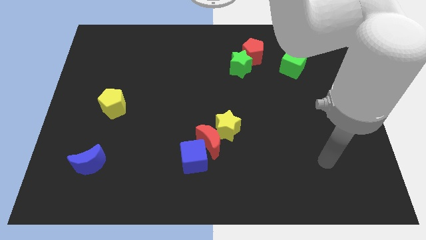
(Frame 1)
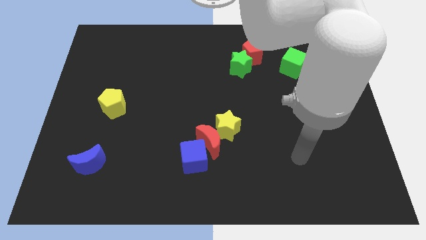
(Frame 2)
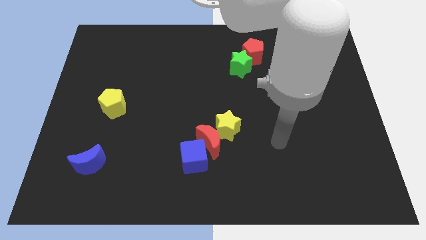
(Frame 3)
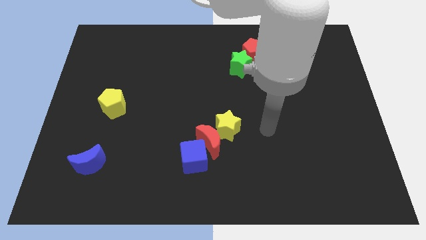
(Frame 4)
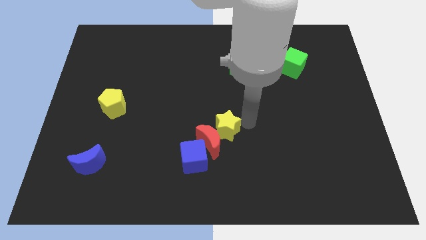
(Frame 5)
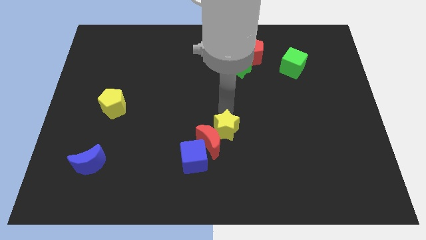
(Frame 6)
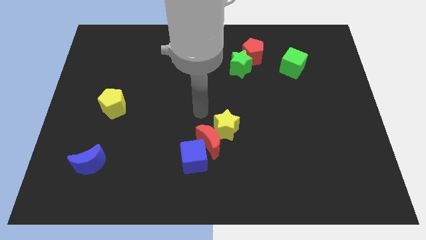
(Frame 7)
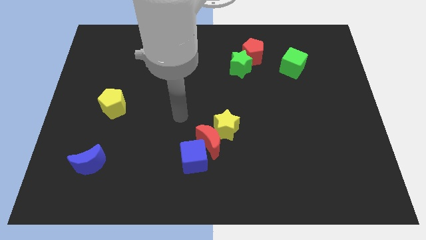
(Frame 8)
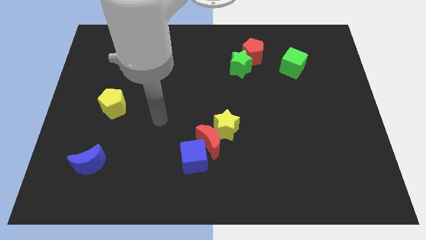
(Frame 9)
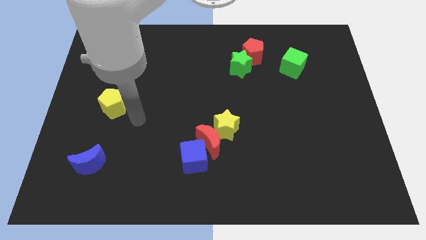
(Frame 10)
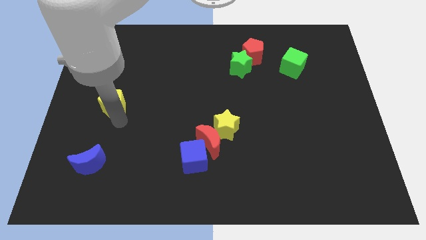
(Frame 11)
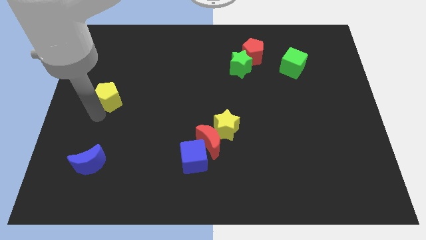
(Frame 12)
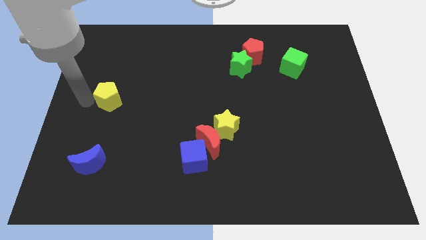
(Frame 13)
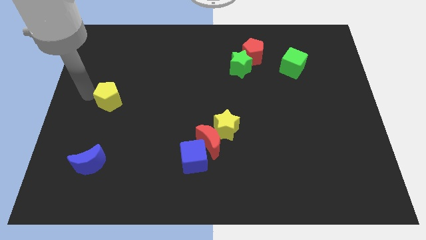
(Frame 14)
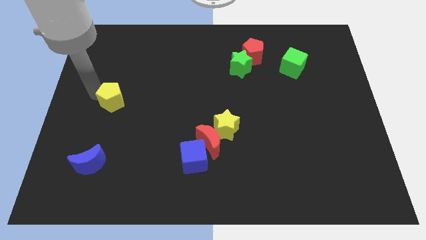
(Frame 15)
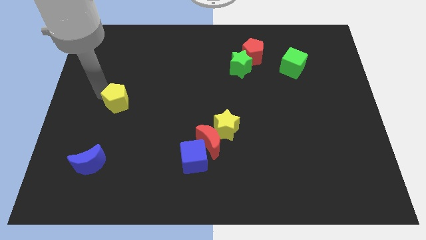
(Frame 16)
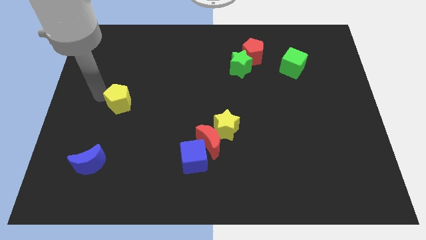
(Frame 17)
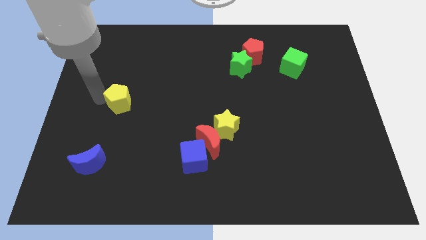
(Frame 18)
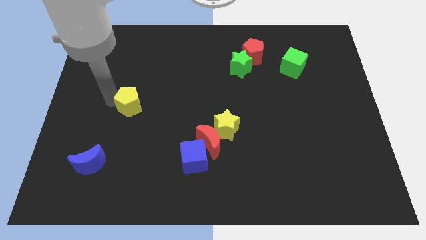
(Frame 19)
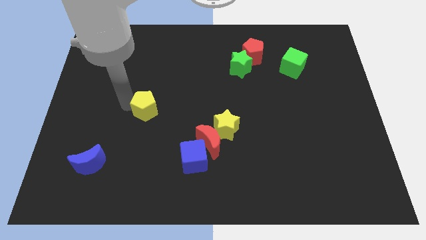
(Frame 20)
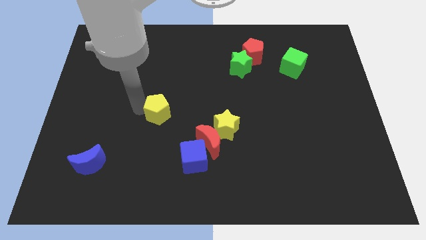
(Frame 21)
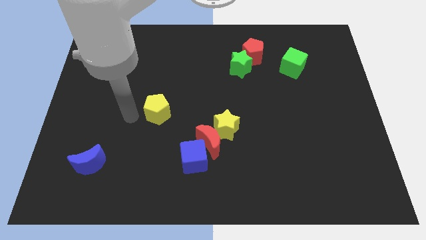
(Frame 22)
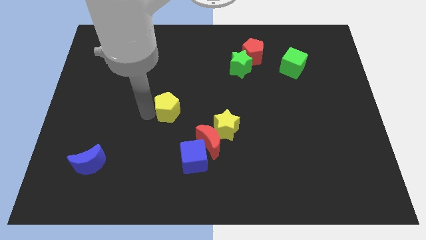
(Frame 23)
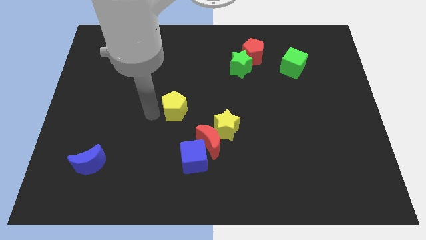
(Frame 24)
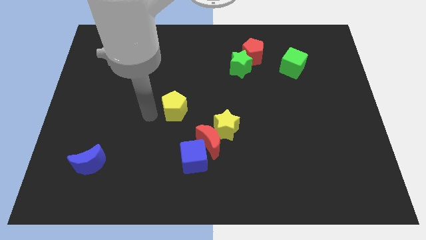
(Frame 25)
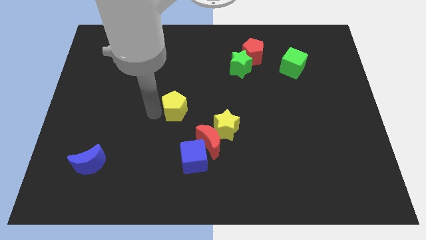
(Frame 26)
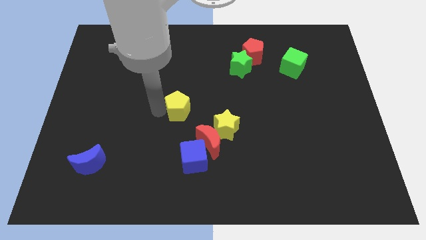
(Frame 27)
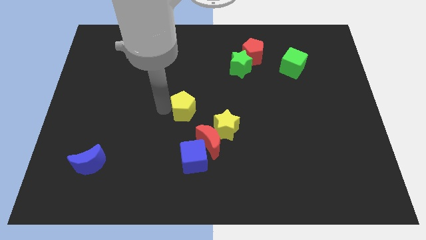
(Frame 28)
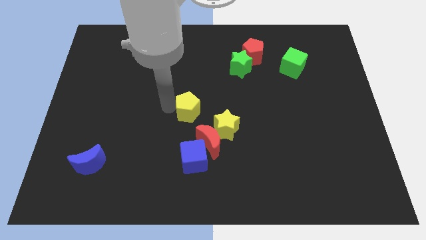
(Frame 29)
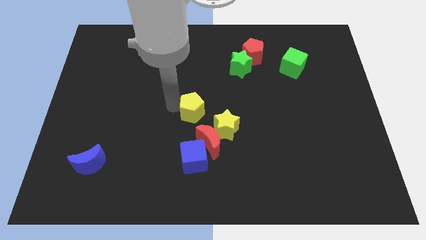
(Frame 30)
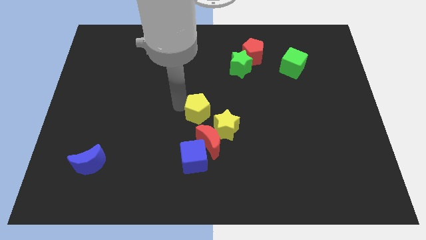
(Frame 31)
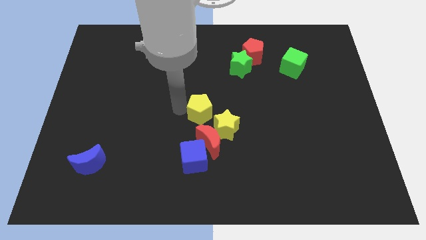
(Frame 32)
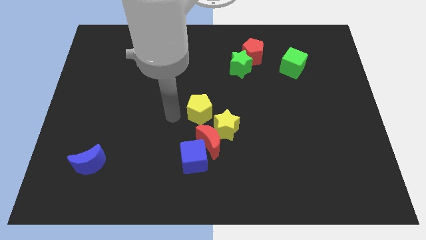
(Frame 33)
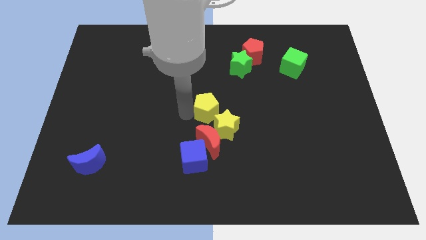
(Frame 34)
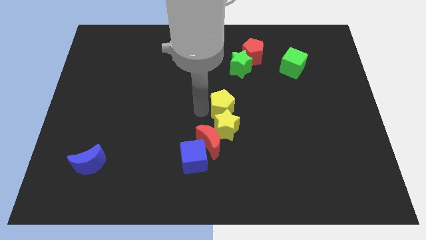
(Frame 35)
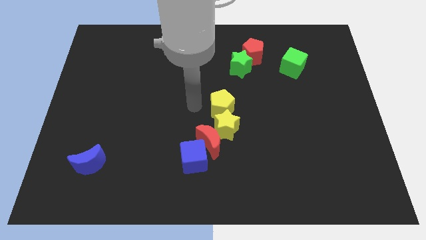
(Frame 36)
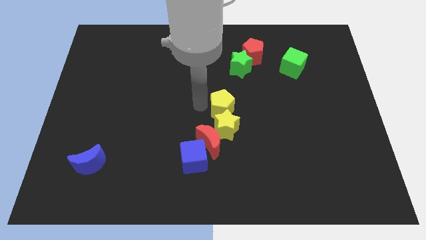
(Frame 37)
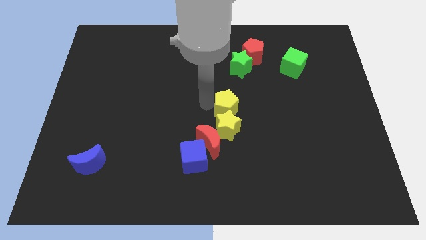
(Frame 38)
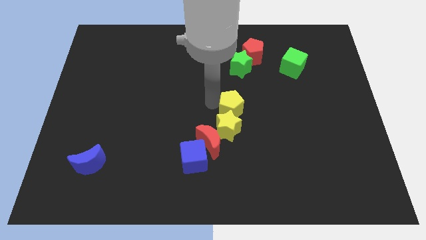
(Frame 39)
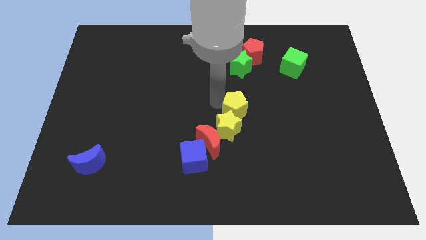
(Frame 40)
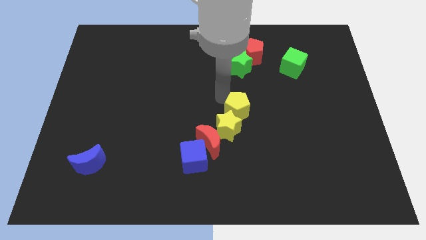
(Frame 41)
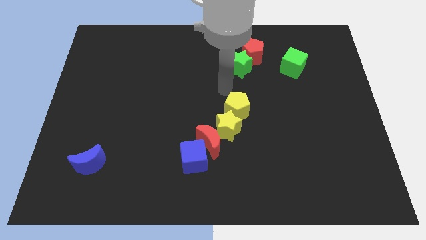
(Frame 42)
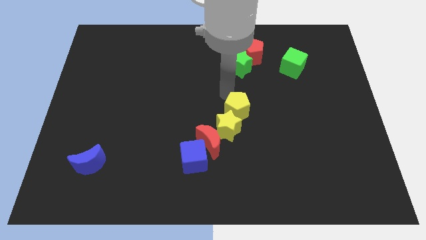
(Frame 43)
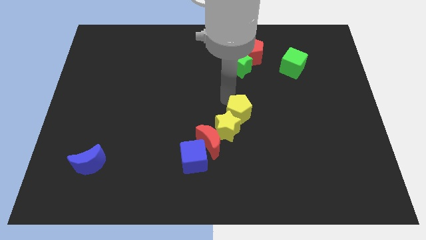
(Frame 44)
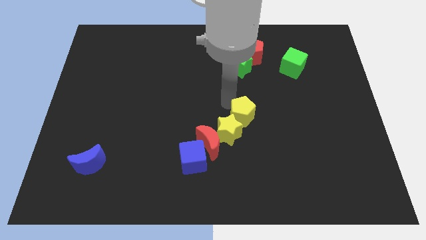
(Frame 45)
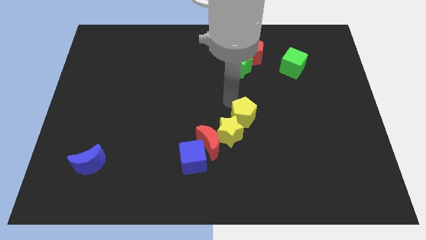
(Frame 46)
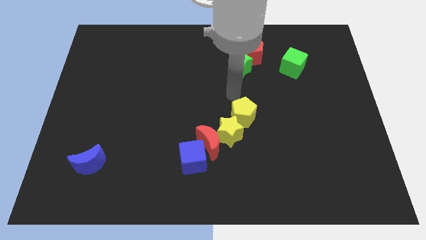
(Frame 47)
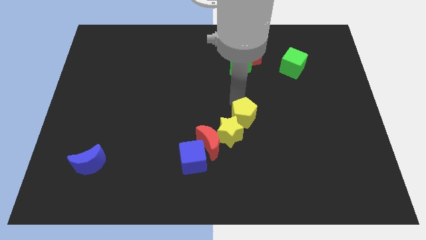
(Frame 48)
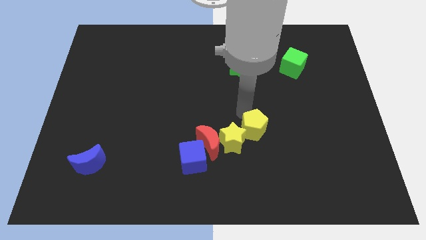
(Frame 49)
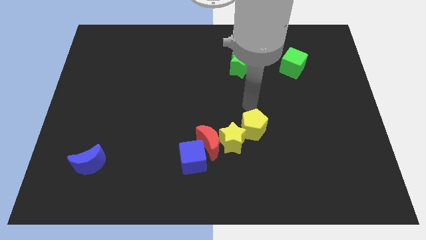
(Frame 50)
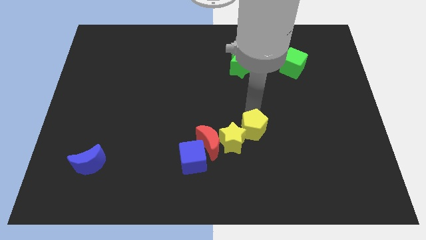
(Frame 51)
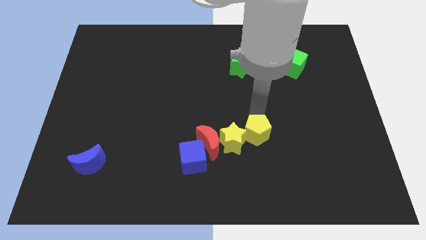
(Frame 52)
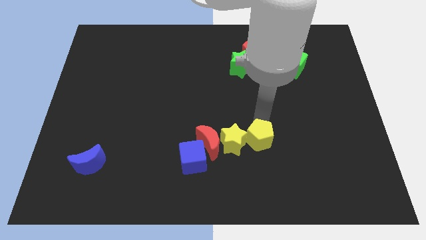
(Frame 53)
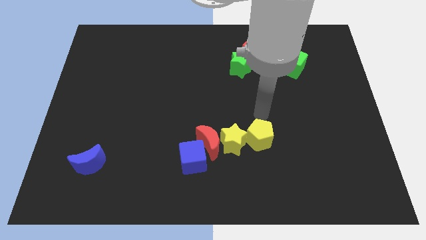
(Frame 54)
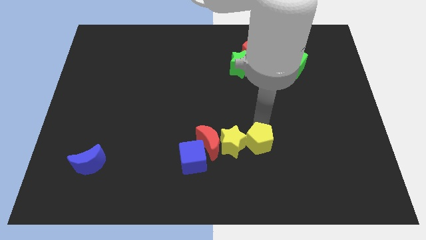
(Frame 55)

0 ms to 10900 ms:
push the yellow pentagon to the bottom right side of the yellow star

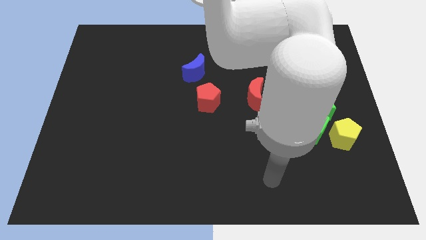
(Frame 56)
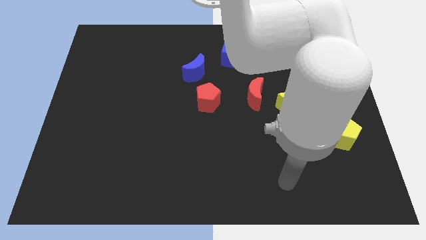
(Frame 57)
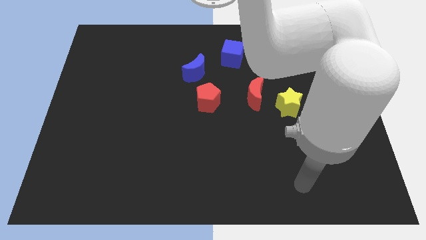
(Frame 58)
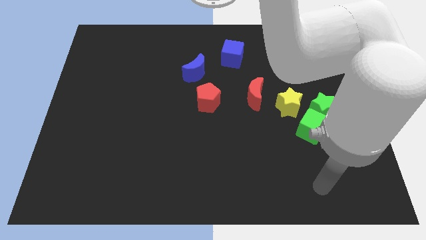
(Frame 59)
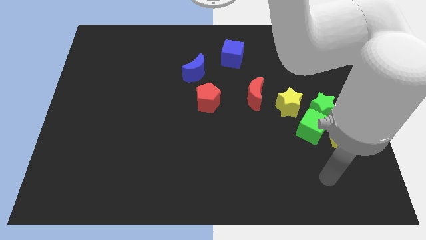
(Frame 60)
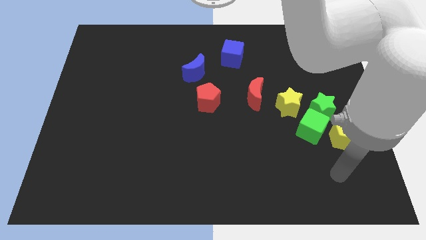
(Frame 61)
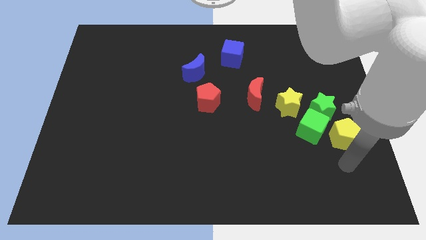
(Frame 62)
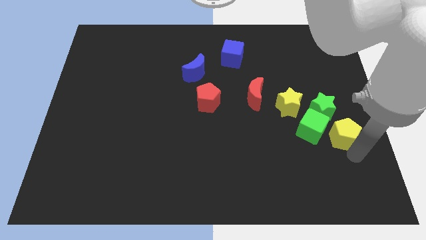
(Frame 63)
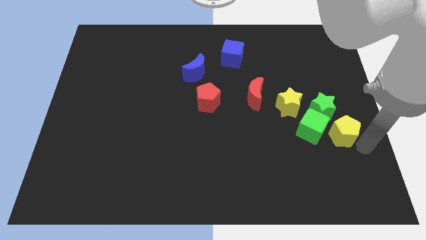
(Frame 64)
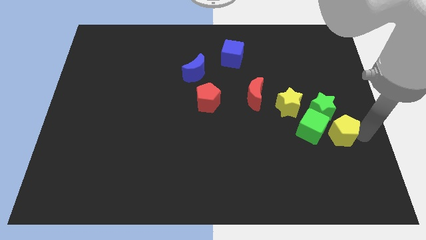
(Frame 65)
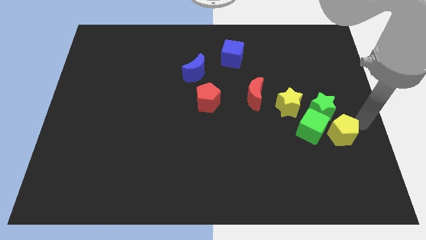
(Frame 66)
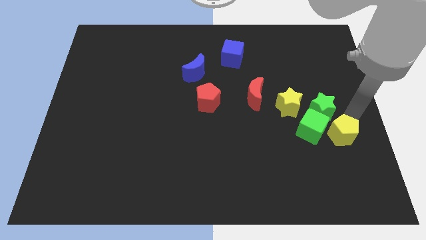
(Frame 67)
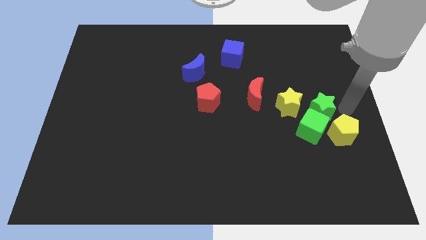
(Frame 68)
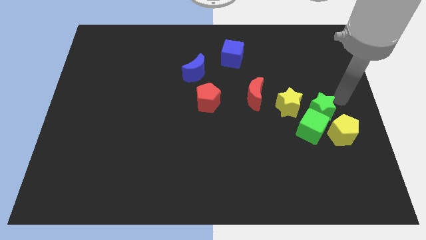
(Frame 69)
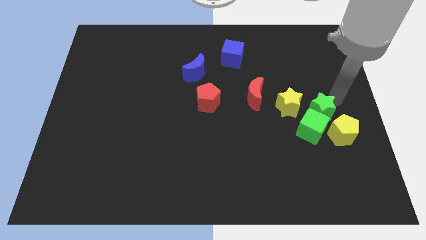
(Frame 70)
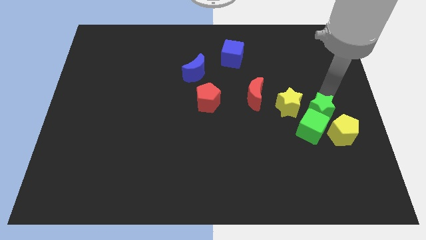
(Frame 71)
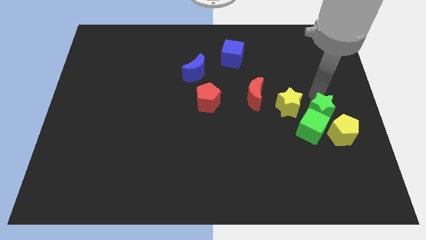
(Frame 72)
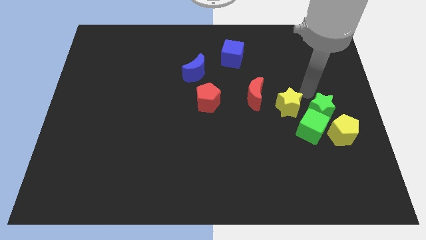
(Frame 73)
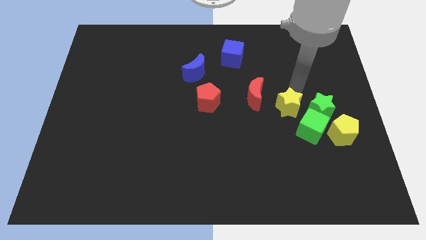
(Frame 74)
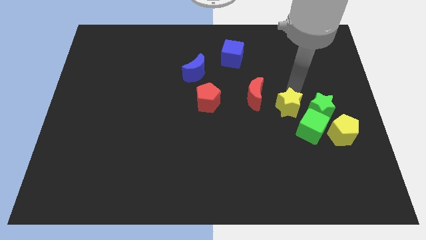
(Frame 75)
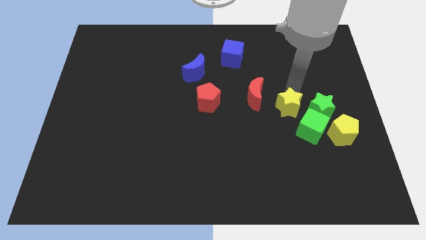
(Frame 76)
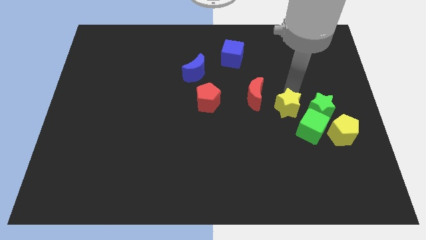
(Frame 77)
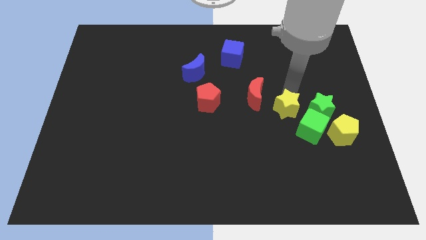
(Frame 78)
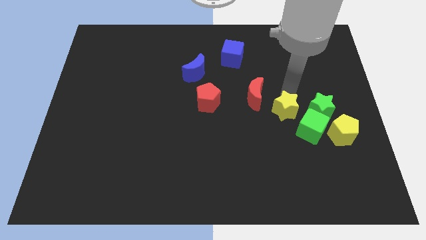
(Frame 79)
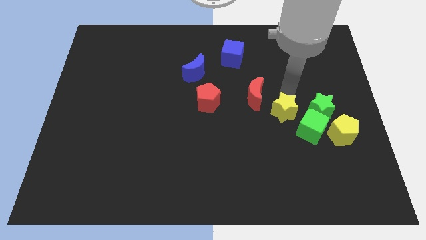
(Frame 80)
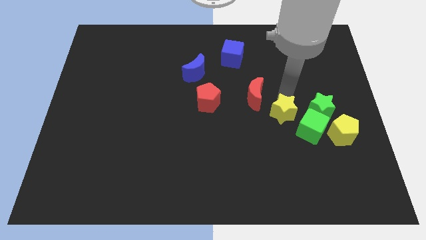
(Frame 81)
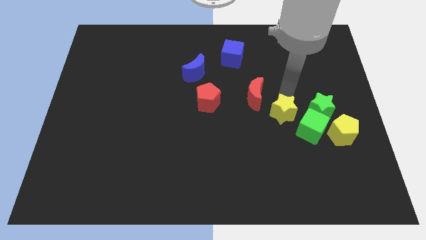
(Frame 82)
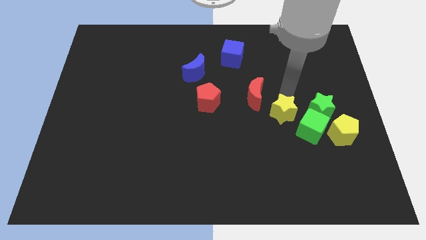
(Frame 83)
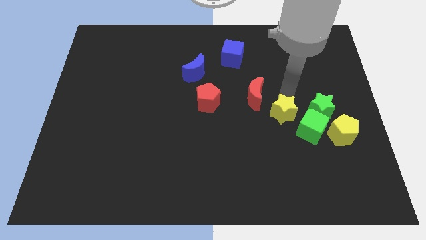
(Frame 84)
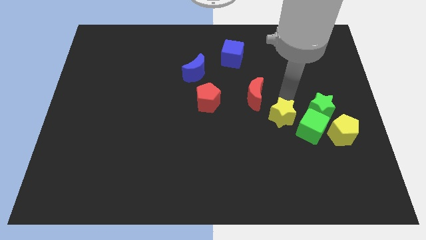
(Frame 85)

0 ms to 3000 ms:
put the yellow star left of the yellow pentagon
